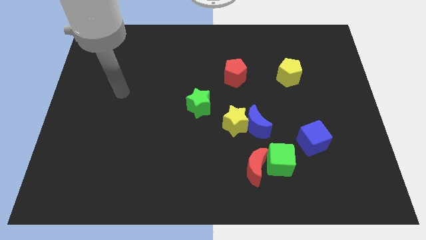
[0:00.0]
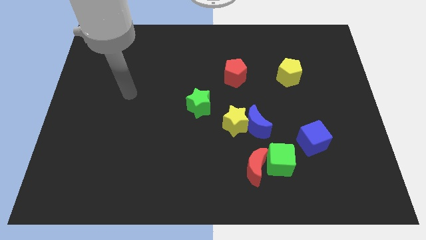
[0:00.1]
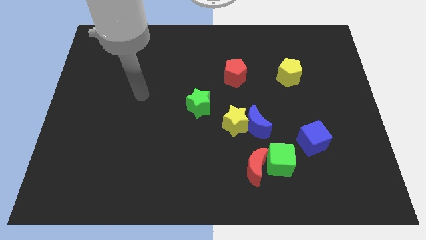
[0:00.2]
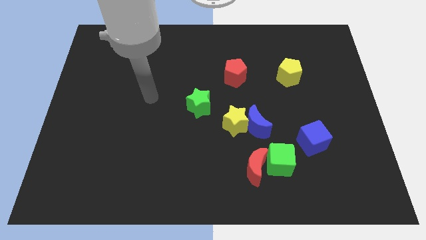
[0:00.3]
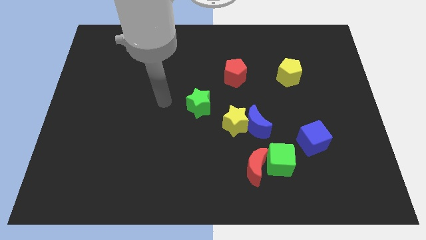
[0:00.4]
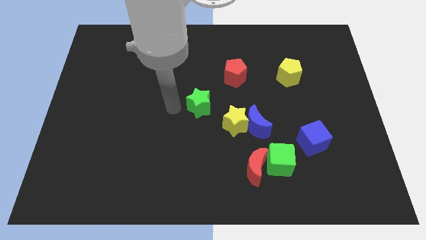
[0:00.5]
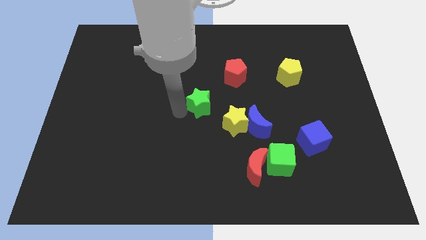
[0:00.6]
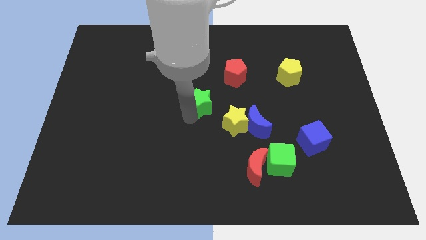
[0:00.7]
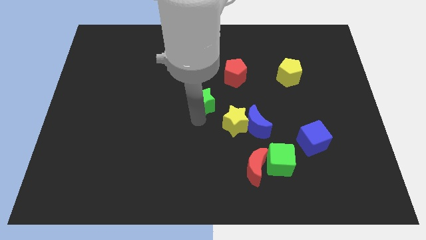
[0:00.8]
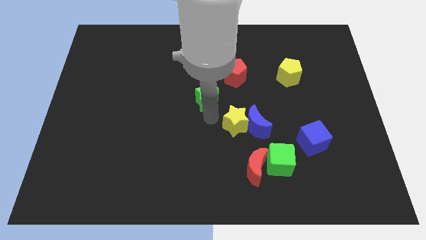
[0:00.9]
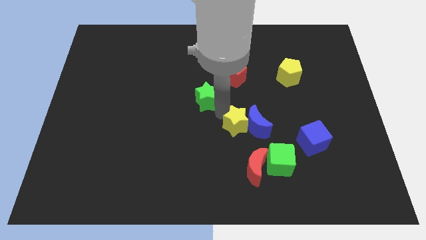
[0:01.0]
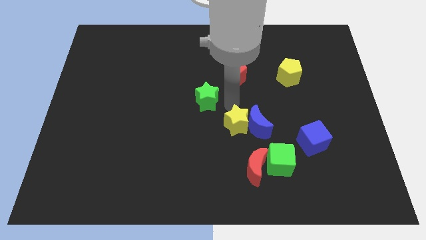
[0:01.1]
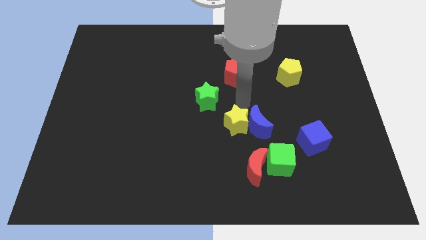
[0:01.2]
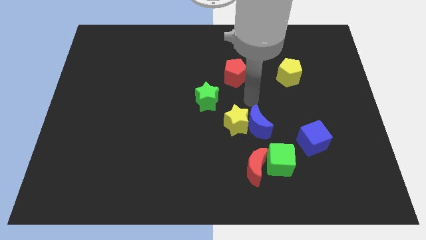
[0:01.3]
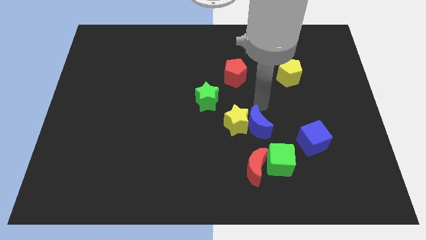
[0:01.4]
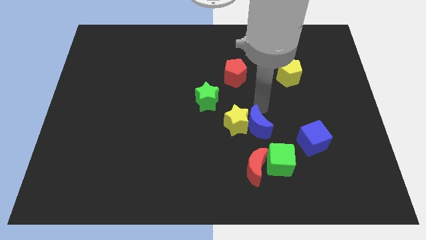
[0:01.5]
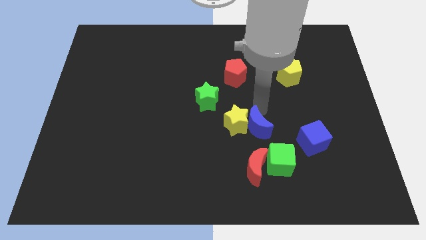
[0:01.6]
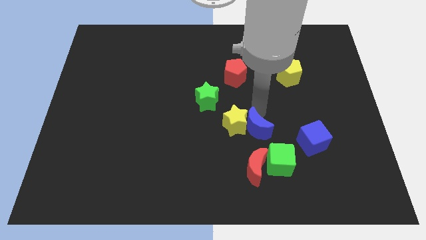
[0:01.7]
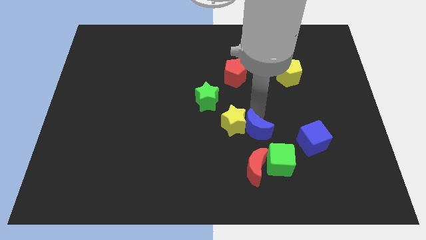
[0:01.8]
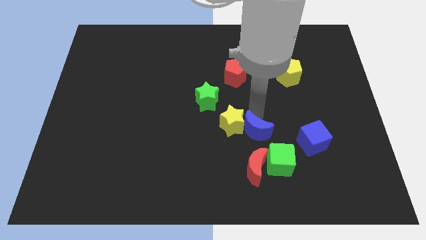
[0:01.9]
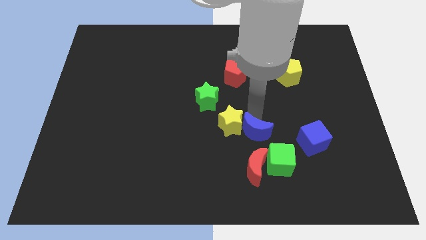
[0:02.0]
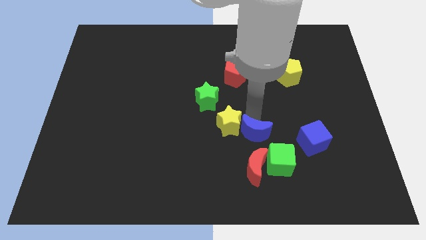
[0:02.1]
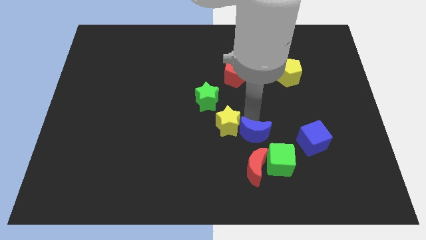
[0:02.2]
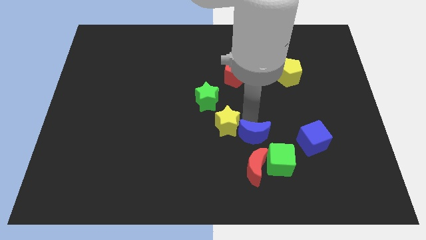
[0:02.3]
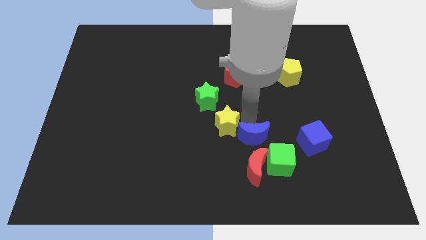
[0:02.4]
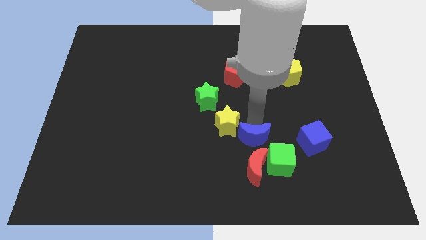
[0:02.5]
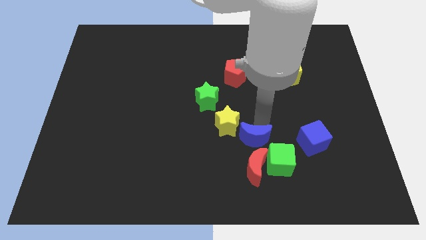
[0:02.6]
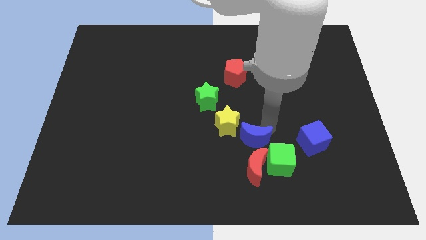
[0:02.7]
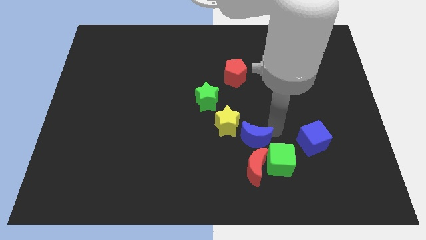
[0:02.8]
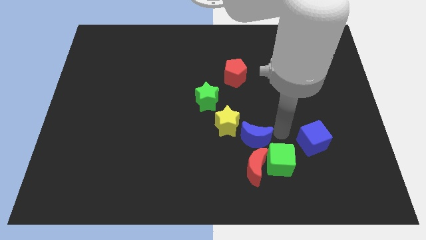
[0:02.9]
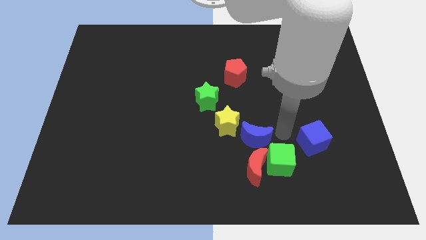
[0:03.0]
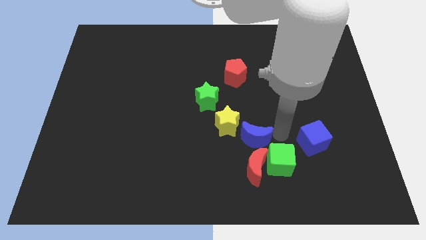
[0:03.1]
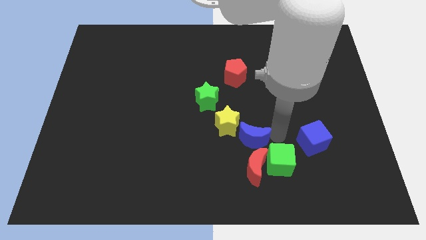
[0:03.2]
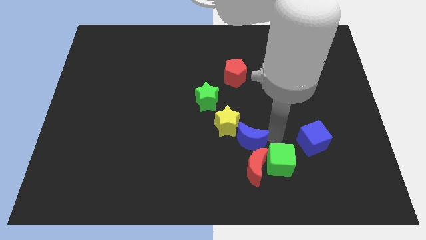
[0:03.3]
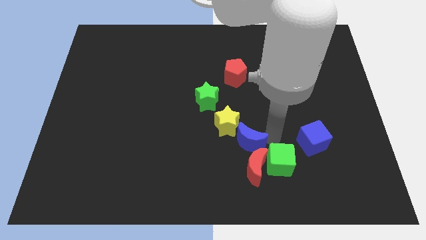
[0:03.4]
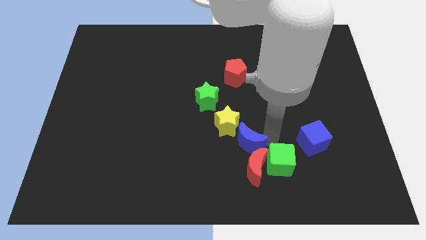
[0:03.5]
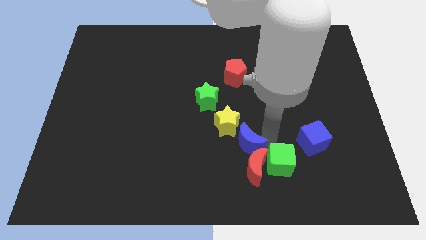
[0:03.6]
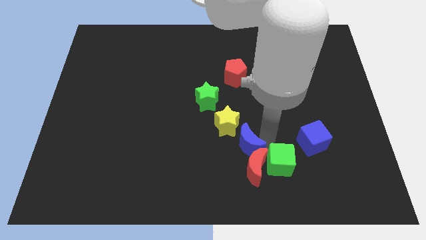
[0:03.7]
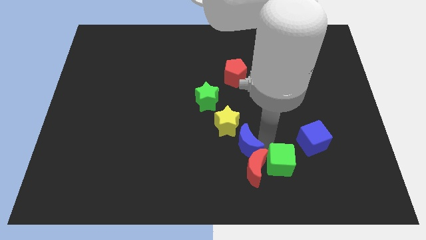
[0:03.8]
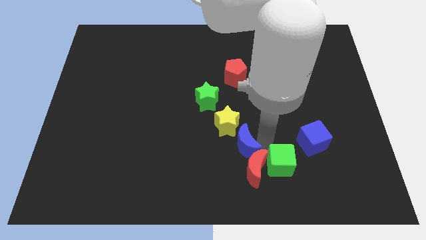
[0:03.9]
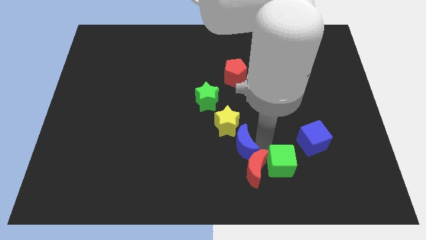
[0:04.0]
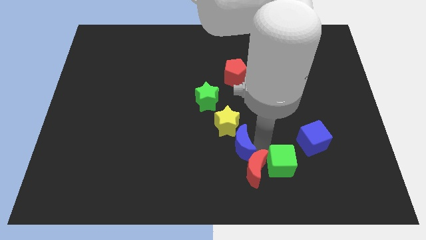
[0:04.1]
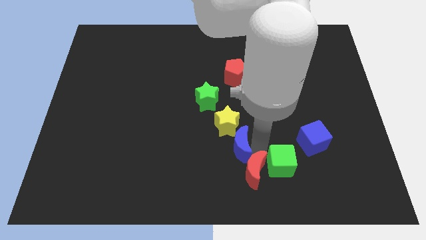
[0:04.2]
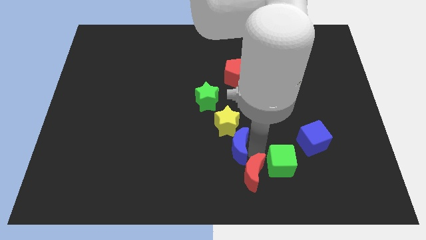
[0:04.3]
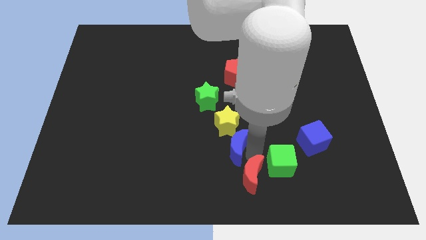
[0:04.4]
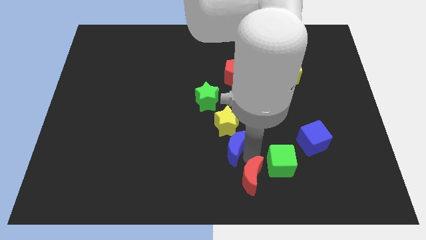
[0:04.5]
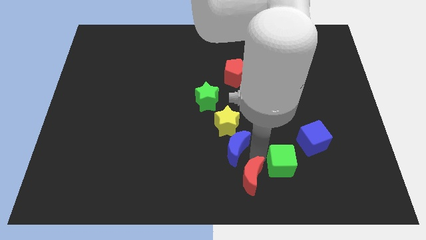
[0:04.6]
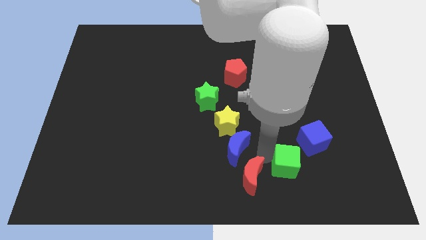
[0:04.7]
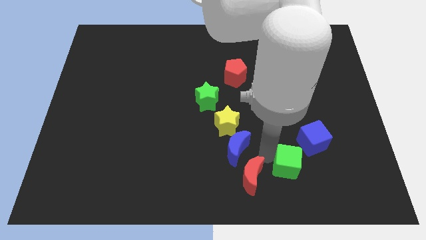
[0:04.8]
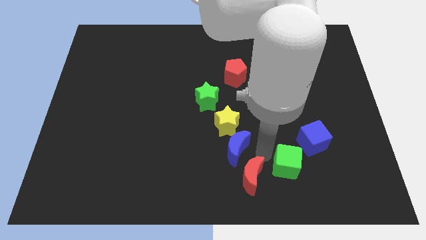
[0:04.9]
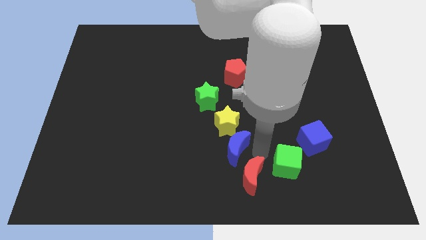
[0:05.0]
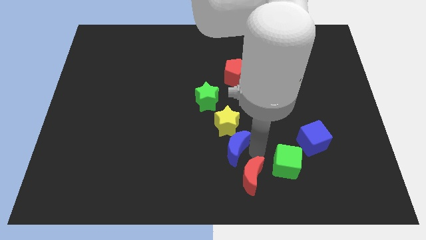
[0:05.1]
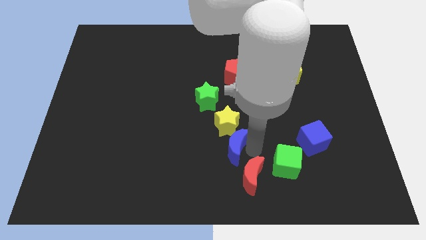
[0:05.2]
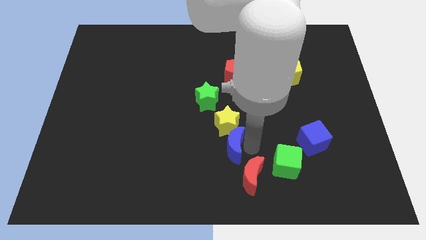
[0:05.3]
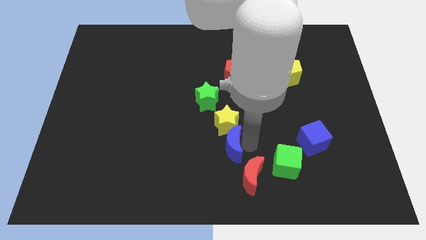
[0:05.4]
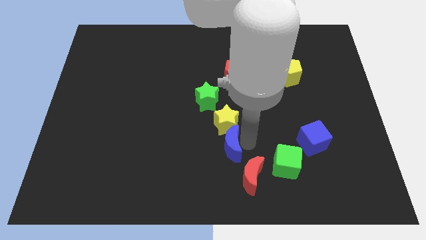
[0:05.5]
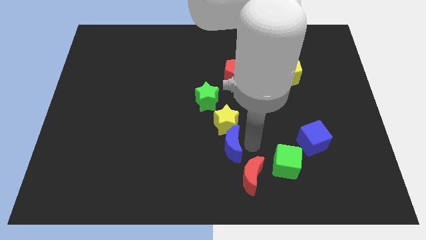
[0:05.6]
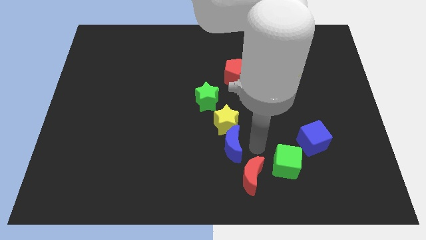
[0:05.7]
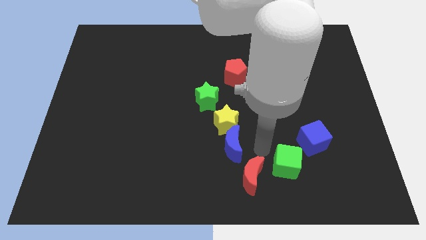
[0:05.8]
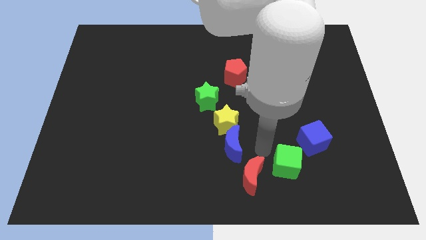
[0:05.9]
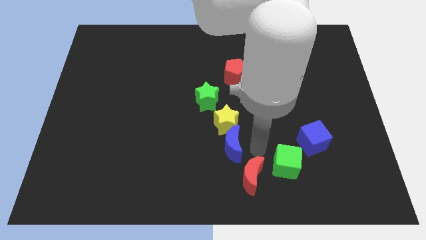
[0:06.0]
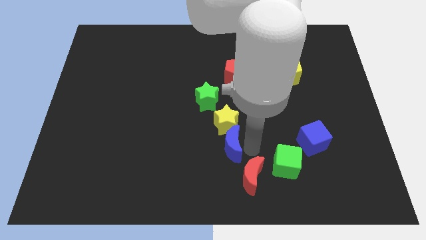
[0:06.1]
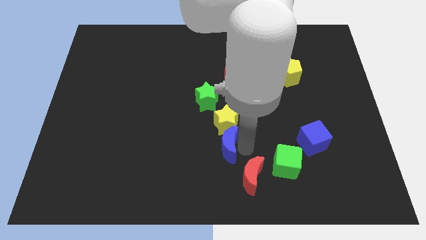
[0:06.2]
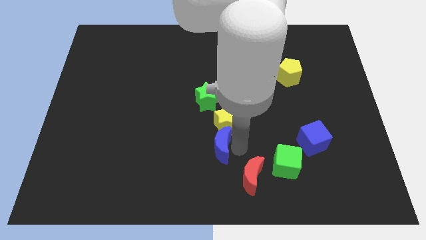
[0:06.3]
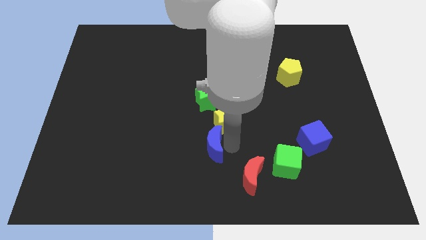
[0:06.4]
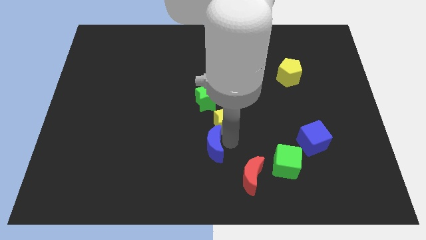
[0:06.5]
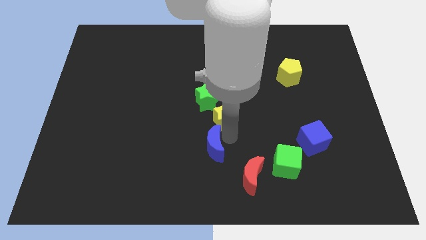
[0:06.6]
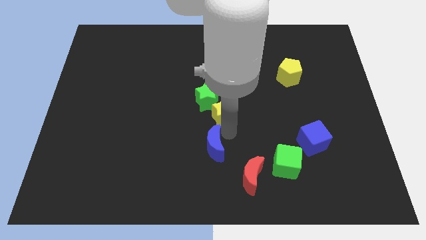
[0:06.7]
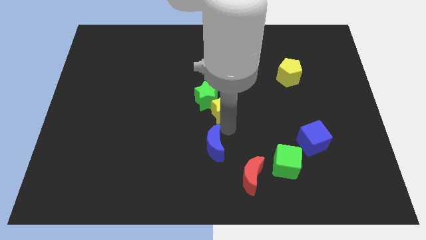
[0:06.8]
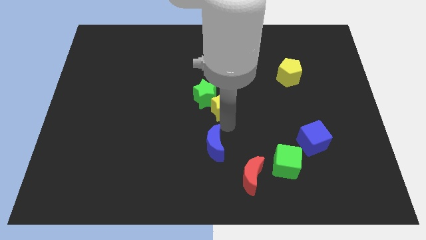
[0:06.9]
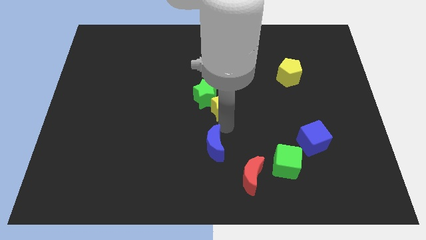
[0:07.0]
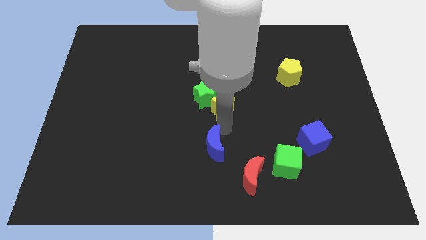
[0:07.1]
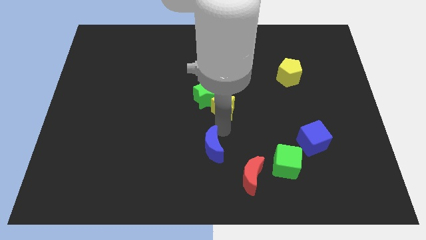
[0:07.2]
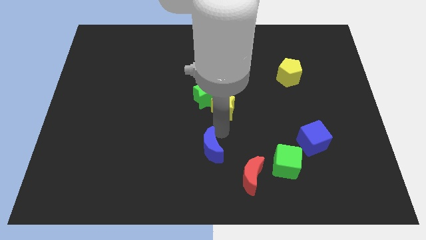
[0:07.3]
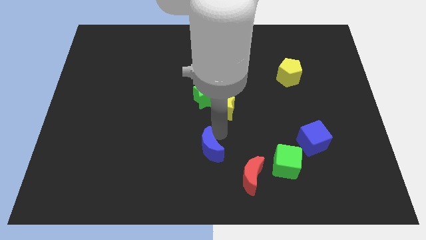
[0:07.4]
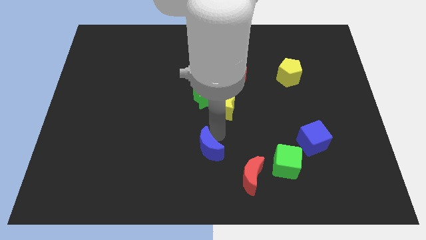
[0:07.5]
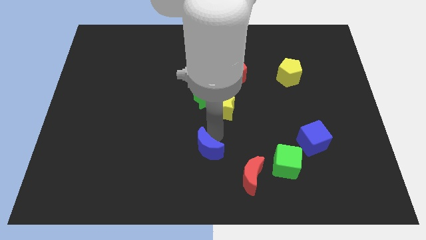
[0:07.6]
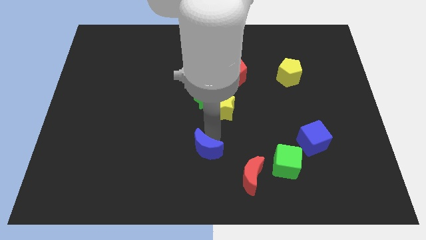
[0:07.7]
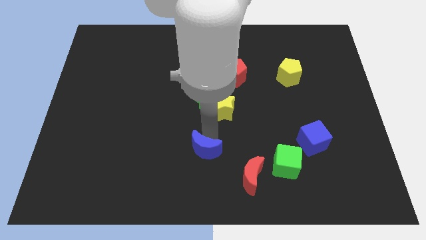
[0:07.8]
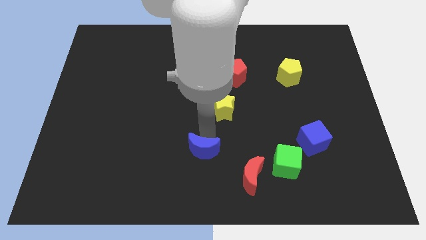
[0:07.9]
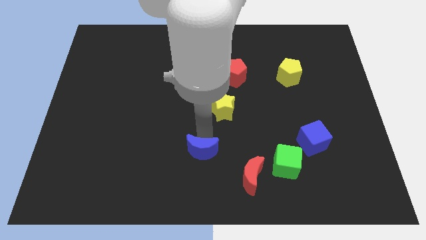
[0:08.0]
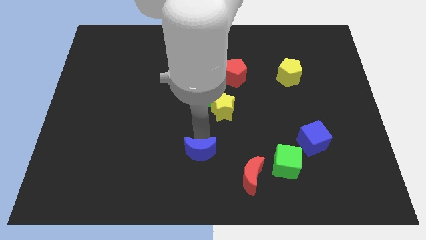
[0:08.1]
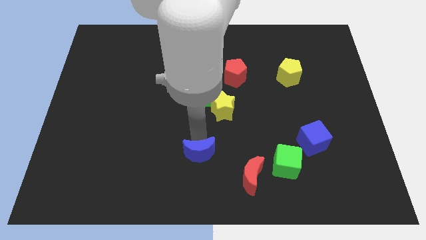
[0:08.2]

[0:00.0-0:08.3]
slide the blue moon to the bottom

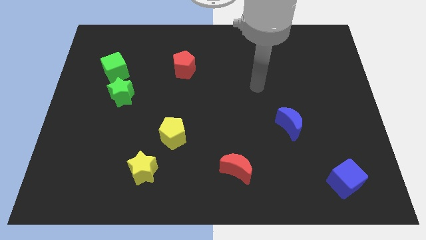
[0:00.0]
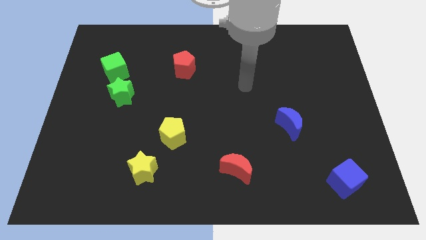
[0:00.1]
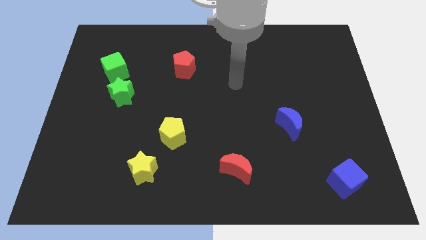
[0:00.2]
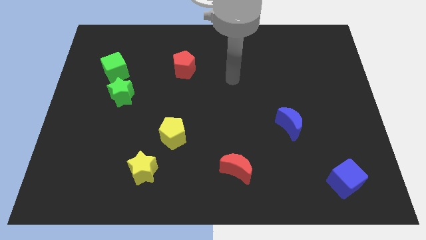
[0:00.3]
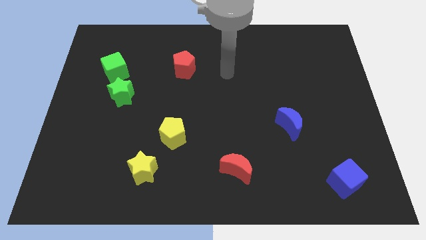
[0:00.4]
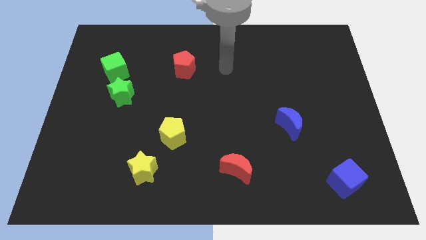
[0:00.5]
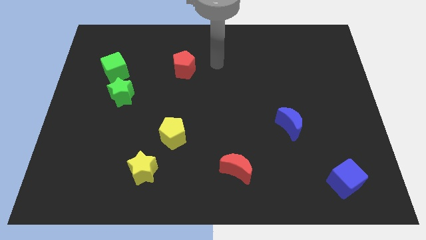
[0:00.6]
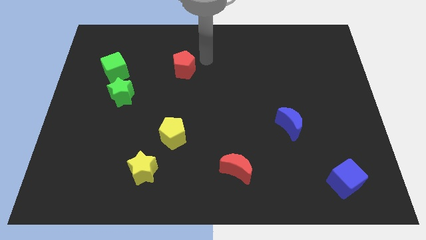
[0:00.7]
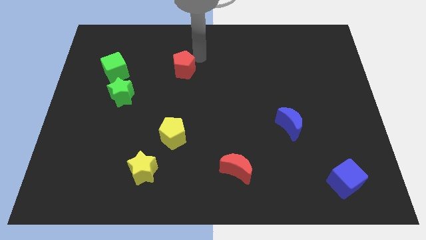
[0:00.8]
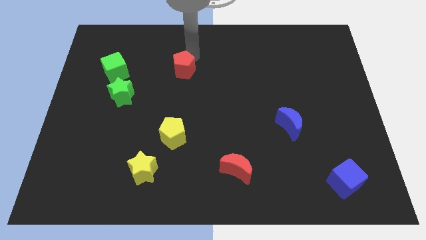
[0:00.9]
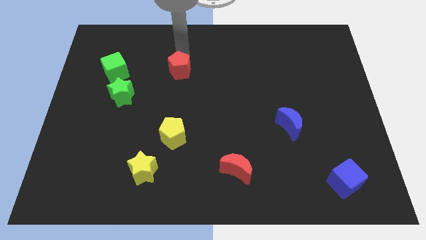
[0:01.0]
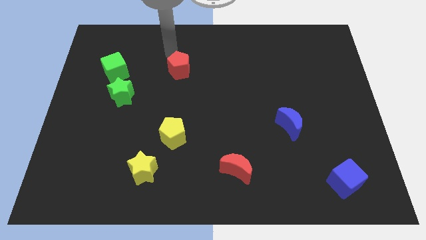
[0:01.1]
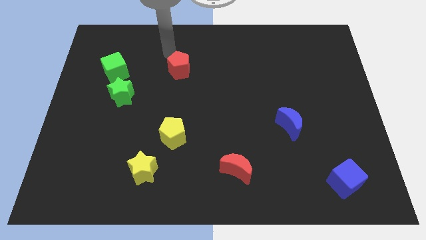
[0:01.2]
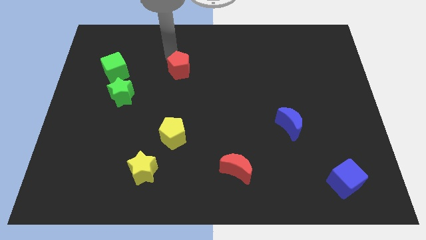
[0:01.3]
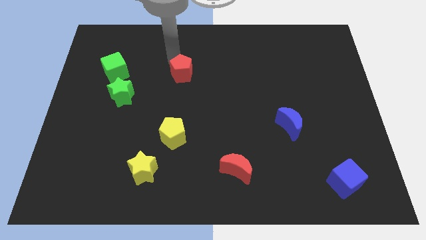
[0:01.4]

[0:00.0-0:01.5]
push the red pentagon to the middle
